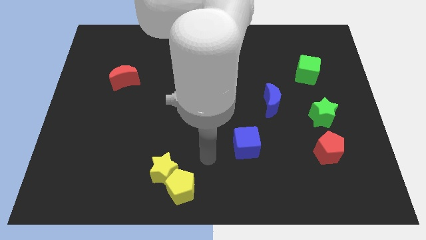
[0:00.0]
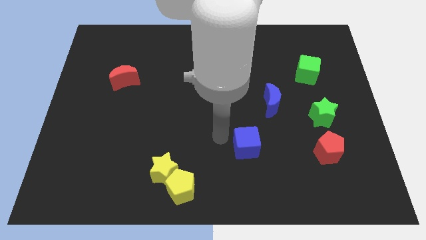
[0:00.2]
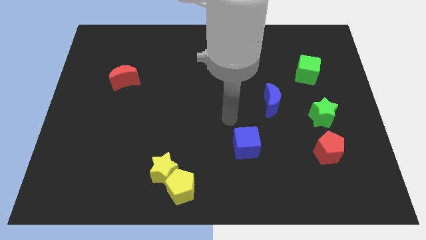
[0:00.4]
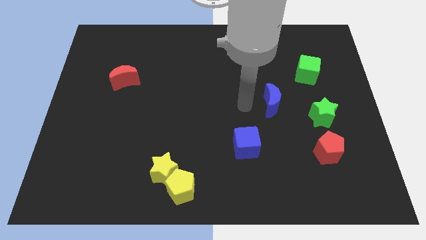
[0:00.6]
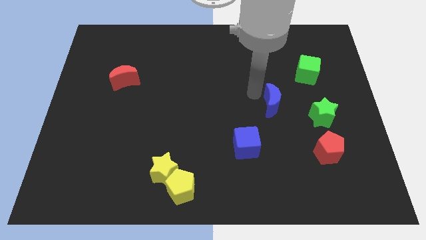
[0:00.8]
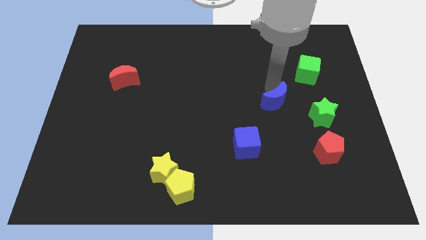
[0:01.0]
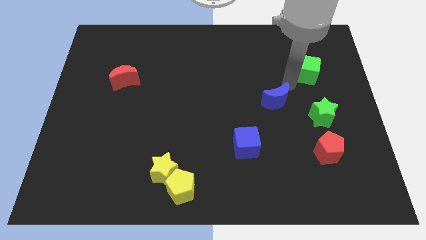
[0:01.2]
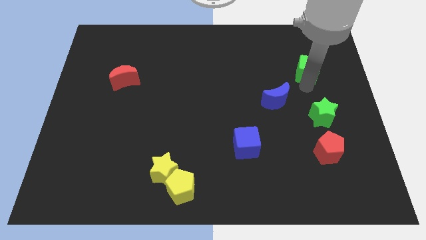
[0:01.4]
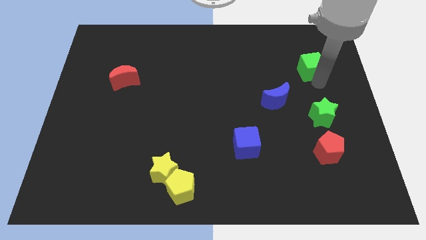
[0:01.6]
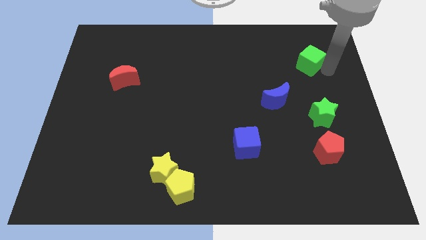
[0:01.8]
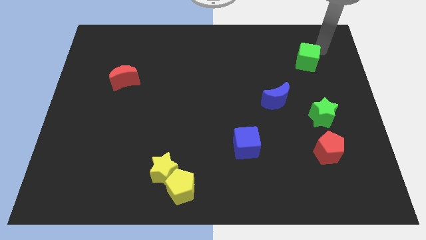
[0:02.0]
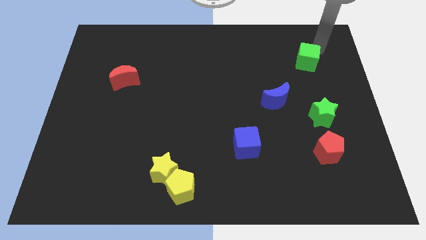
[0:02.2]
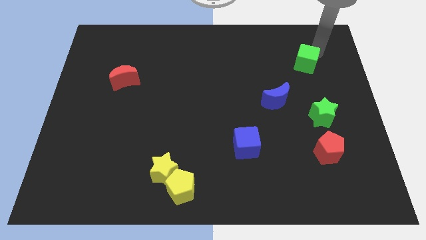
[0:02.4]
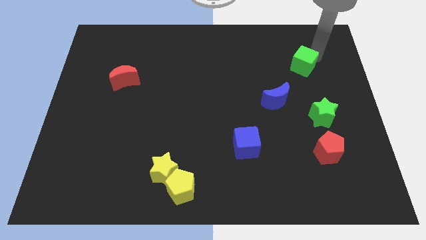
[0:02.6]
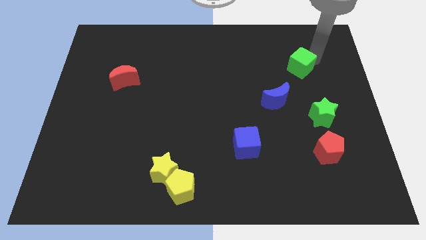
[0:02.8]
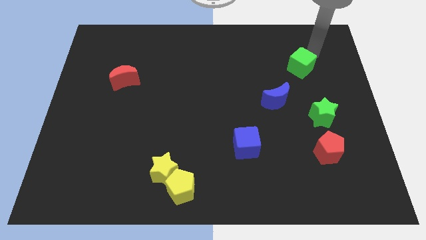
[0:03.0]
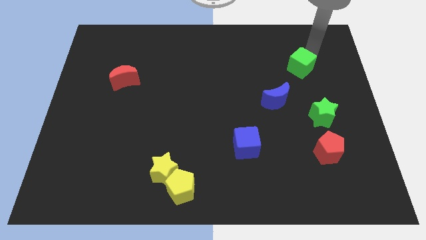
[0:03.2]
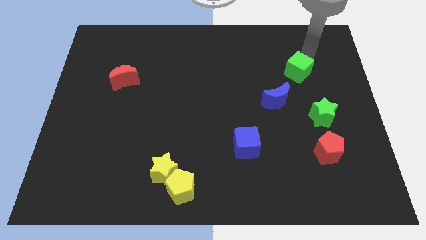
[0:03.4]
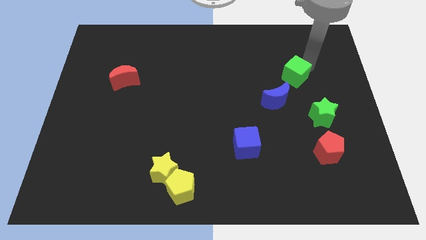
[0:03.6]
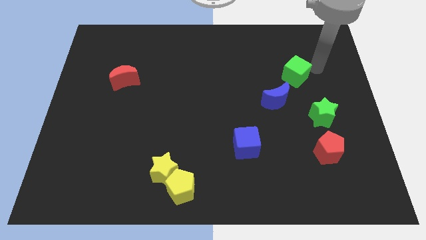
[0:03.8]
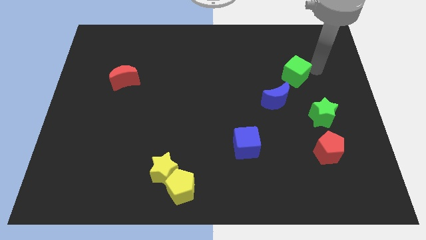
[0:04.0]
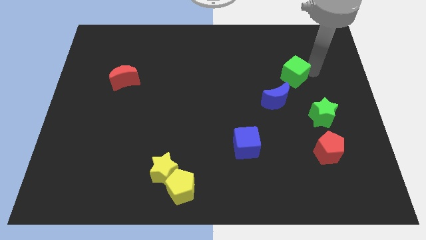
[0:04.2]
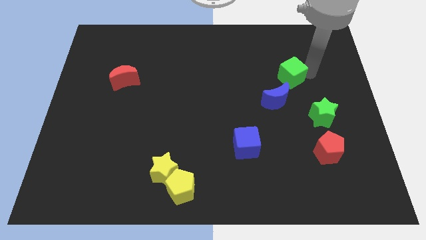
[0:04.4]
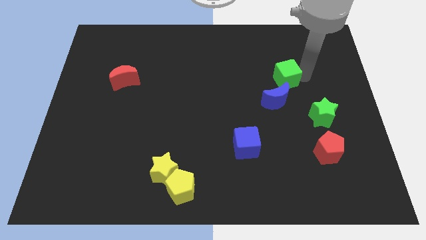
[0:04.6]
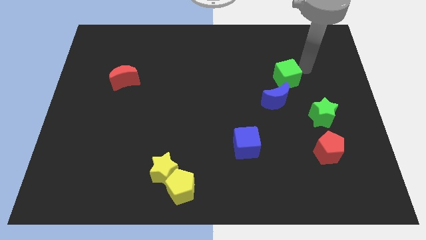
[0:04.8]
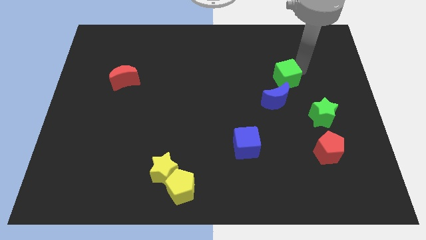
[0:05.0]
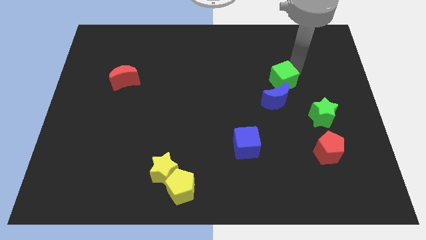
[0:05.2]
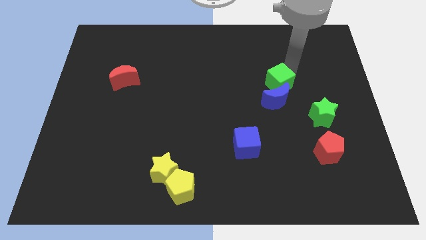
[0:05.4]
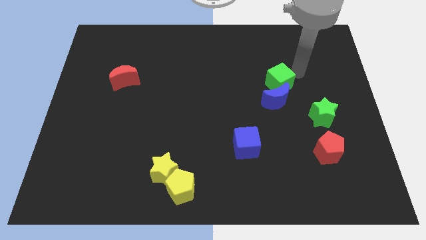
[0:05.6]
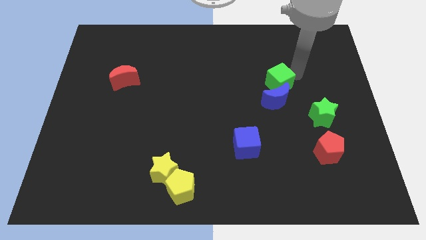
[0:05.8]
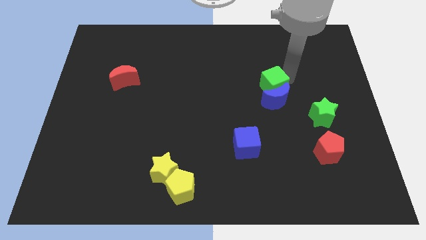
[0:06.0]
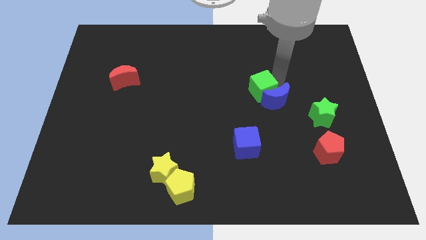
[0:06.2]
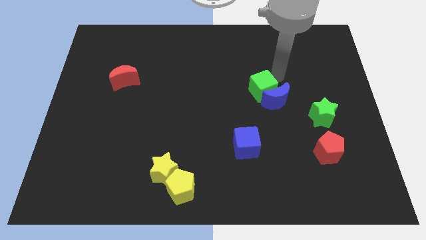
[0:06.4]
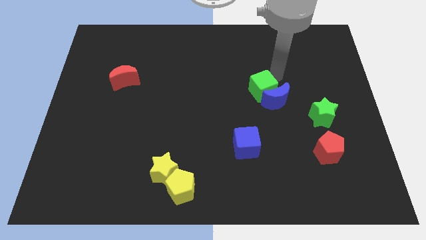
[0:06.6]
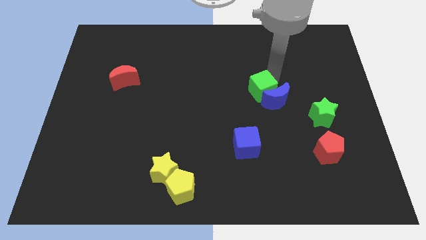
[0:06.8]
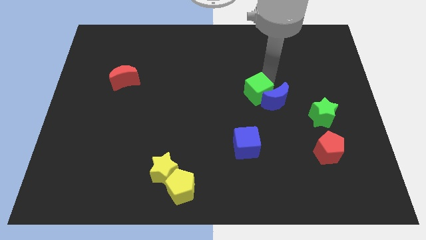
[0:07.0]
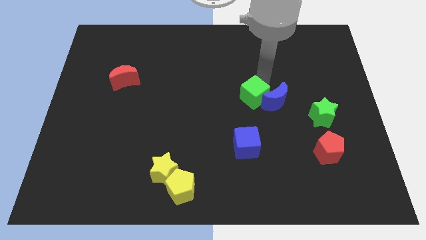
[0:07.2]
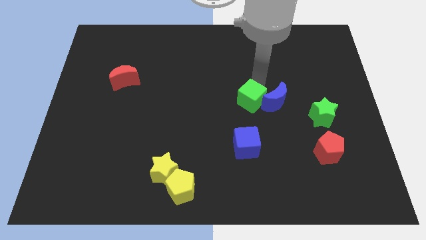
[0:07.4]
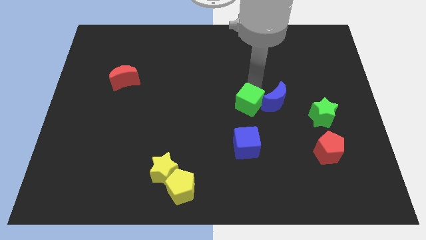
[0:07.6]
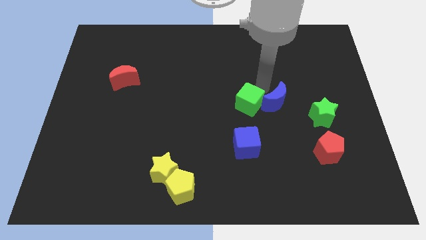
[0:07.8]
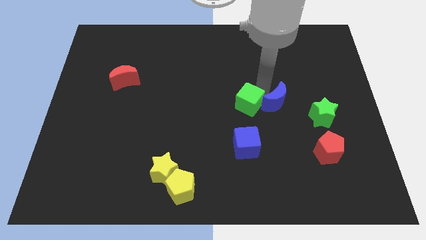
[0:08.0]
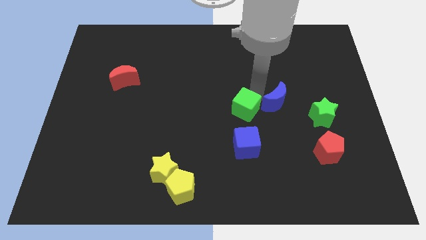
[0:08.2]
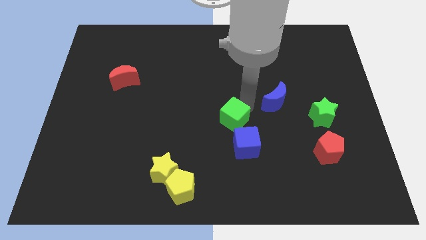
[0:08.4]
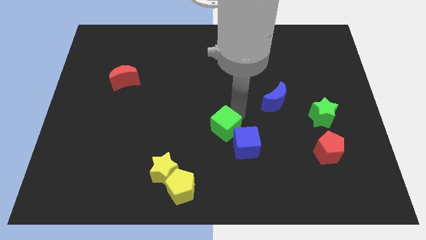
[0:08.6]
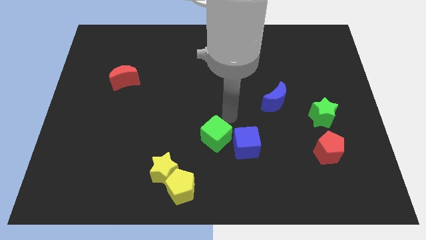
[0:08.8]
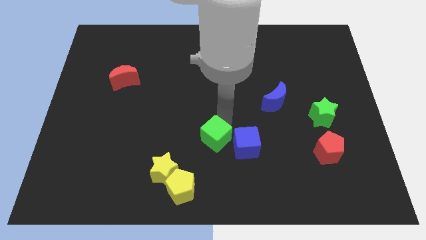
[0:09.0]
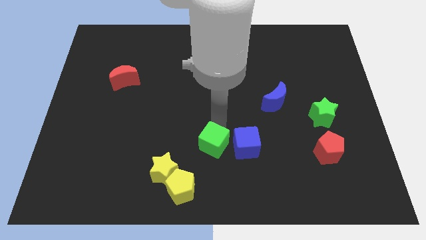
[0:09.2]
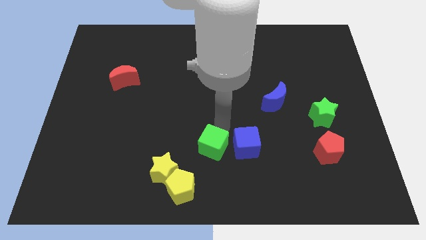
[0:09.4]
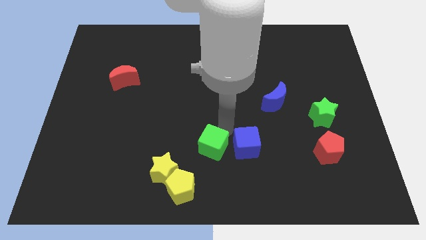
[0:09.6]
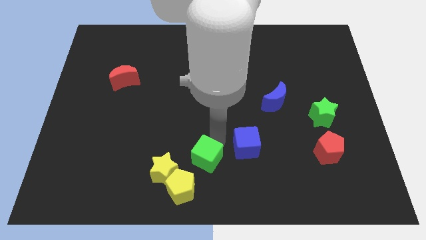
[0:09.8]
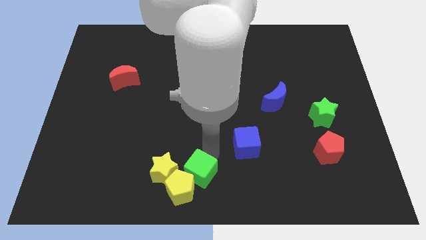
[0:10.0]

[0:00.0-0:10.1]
push the green cube towards the yellow pentagon

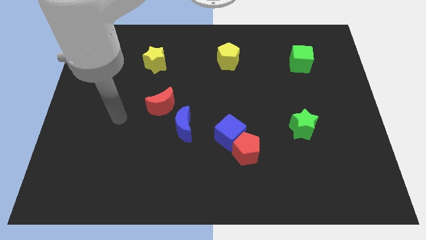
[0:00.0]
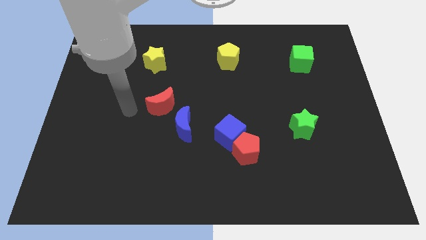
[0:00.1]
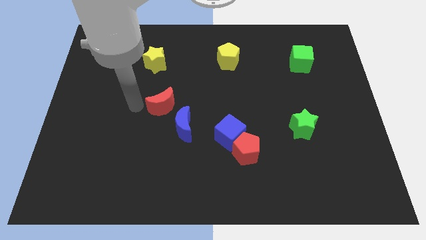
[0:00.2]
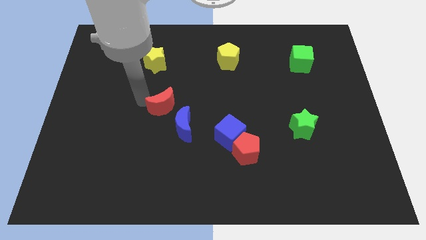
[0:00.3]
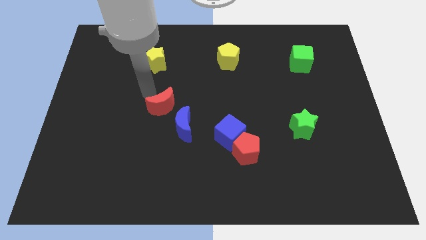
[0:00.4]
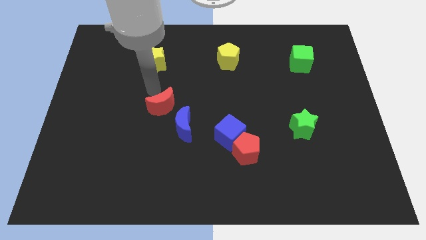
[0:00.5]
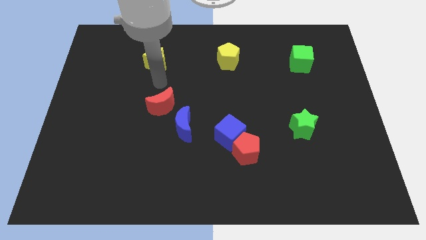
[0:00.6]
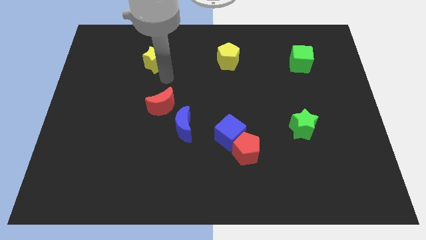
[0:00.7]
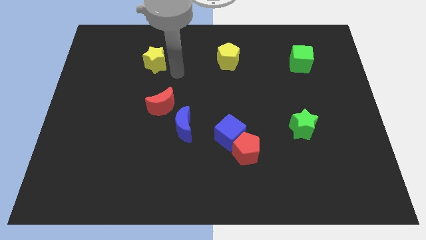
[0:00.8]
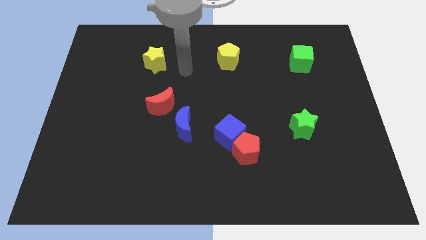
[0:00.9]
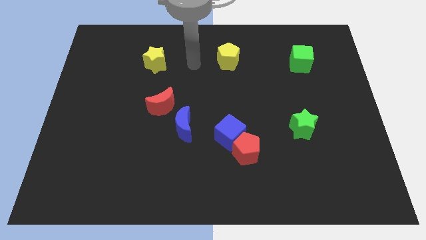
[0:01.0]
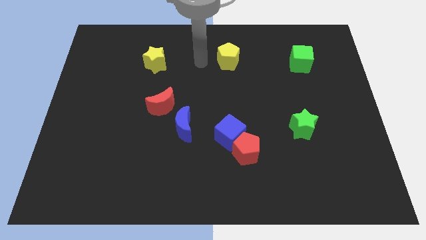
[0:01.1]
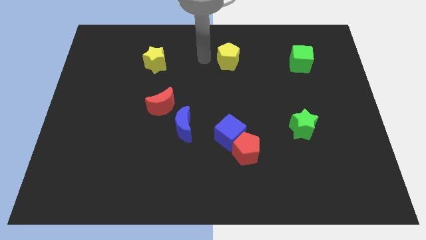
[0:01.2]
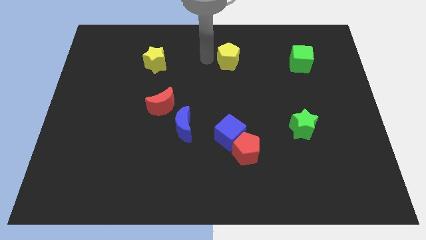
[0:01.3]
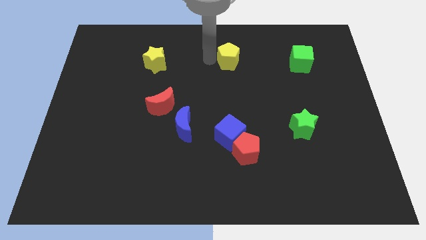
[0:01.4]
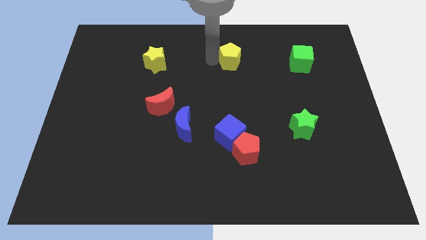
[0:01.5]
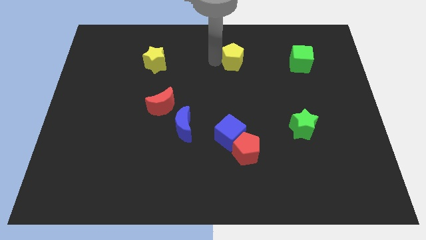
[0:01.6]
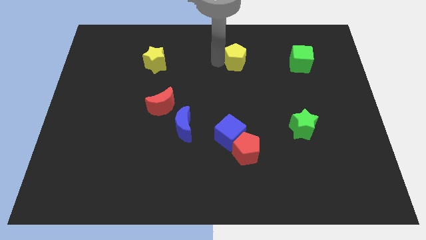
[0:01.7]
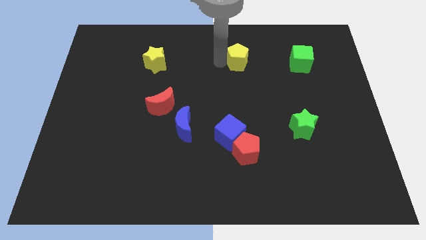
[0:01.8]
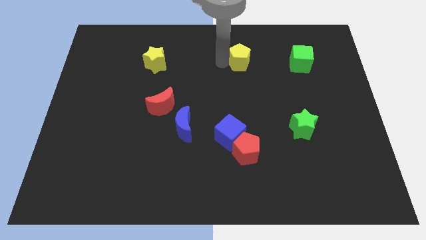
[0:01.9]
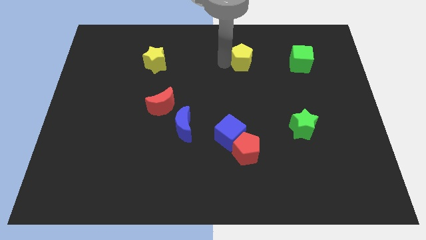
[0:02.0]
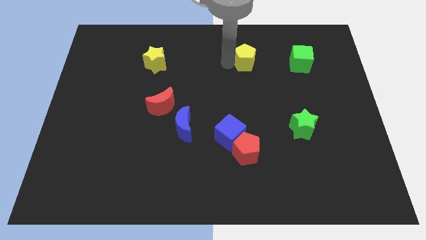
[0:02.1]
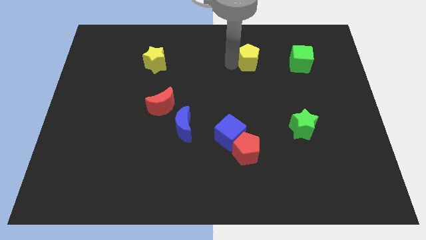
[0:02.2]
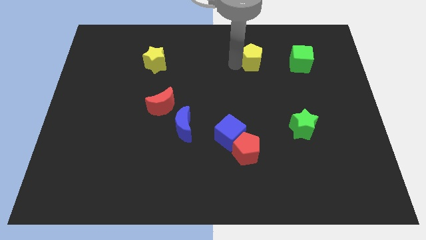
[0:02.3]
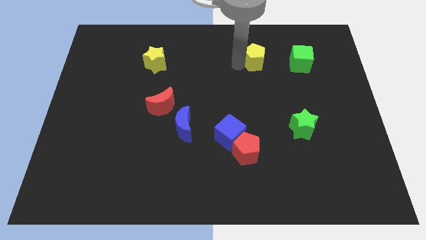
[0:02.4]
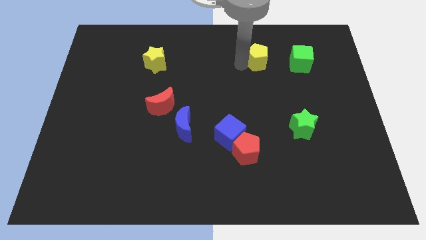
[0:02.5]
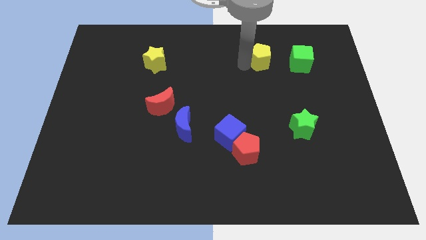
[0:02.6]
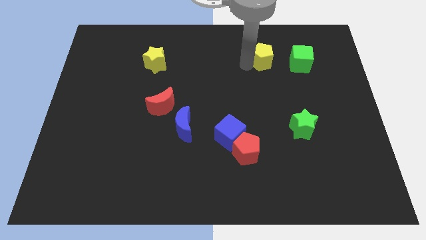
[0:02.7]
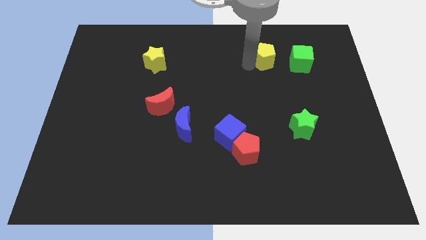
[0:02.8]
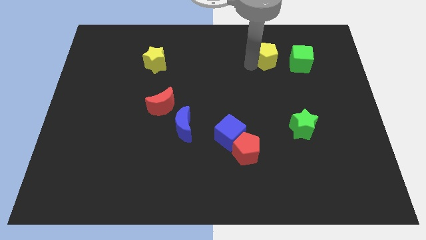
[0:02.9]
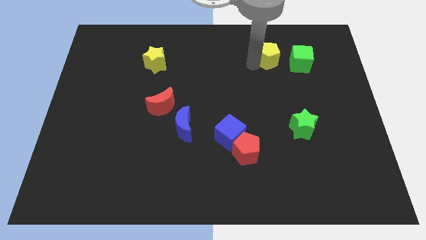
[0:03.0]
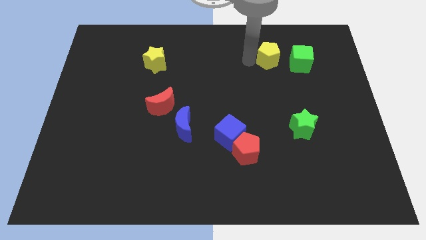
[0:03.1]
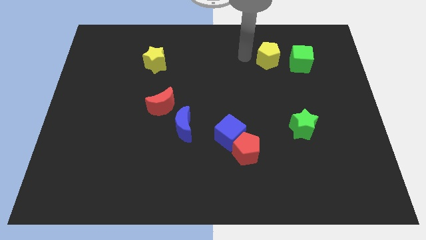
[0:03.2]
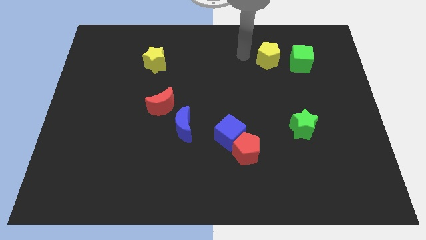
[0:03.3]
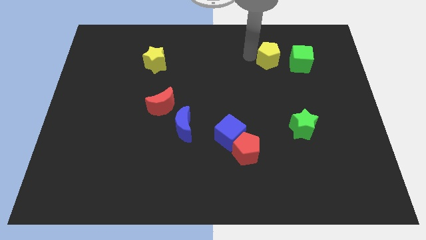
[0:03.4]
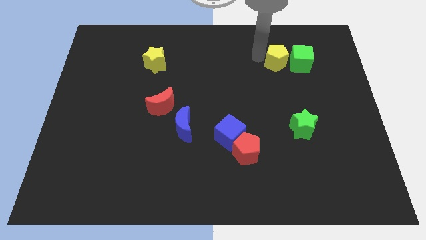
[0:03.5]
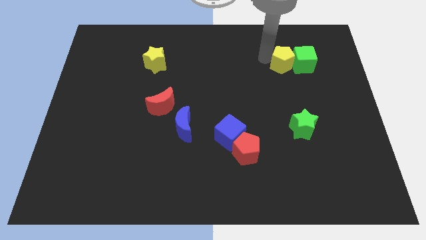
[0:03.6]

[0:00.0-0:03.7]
move the yellow pentagon next to the green cube
